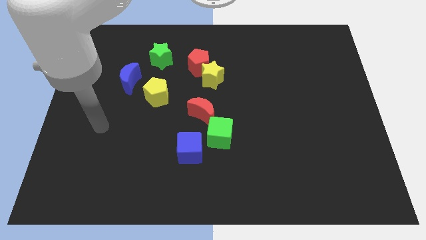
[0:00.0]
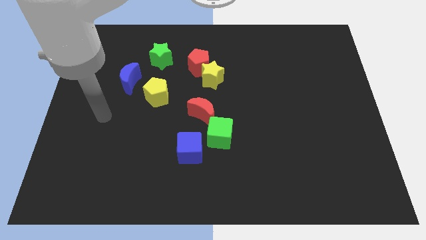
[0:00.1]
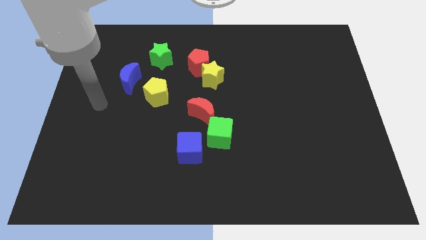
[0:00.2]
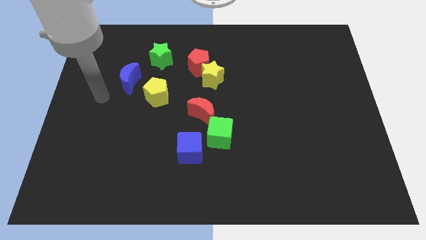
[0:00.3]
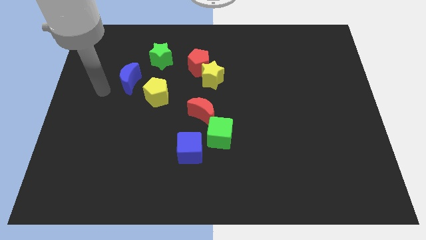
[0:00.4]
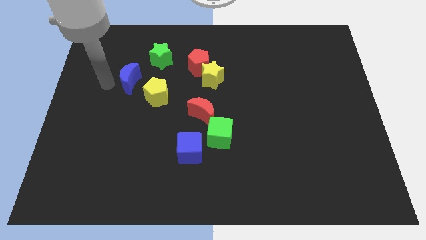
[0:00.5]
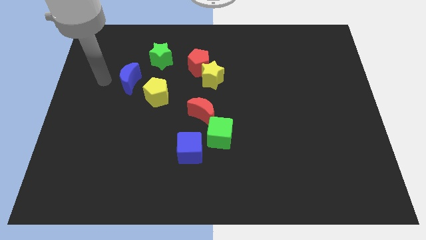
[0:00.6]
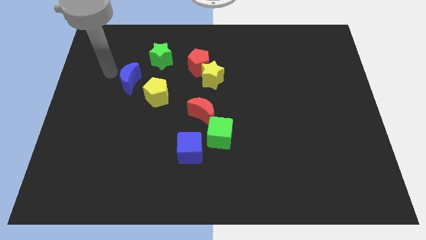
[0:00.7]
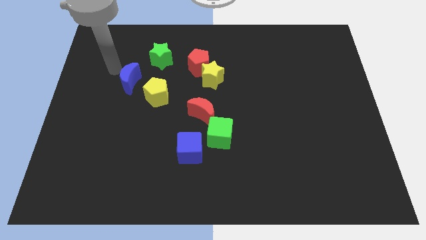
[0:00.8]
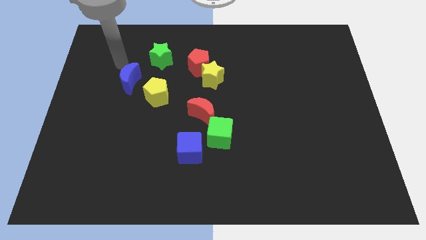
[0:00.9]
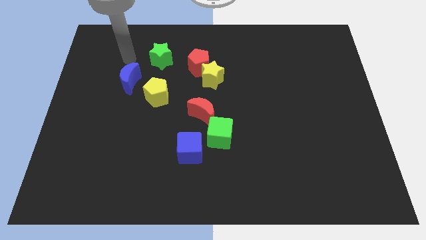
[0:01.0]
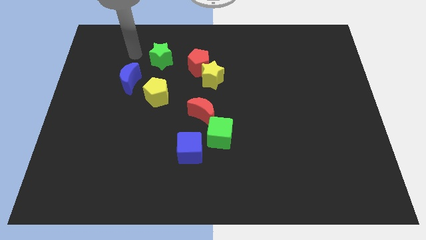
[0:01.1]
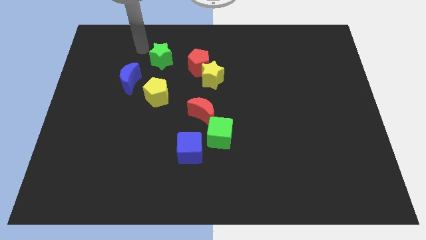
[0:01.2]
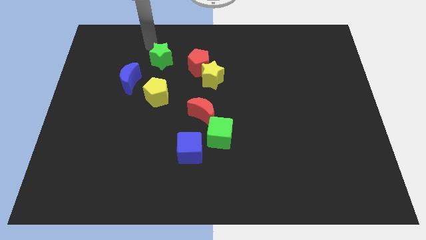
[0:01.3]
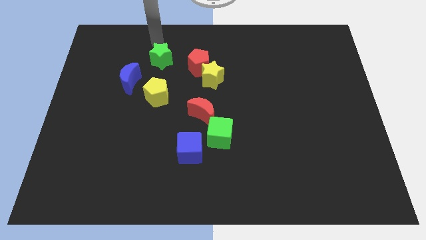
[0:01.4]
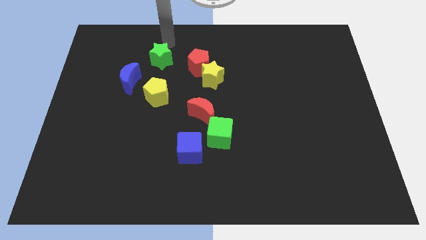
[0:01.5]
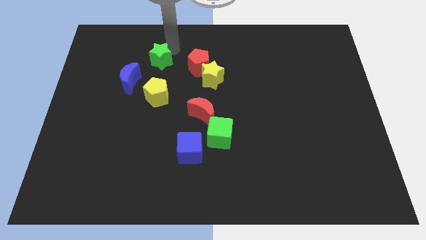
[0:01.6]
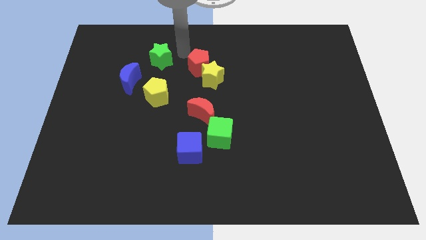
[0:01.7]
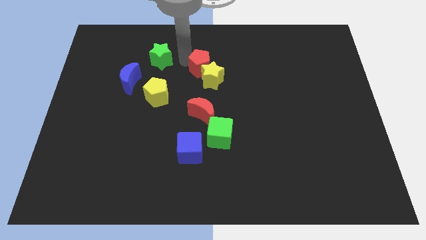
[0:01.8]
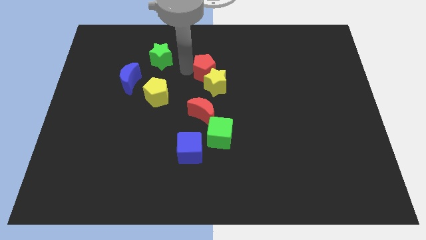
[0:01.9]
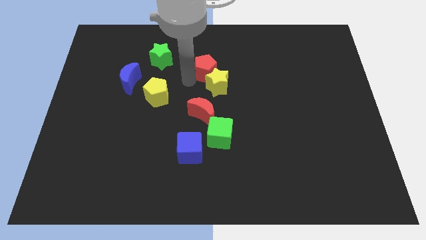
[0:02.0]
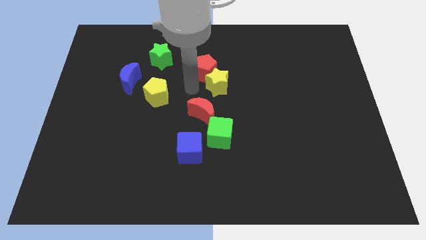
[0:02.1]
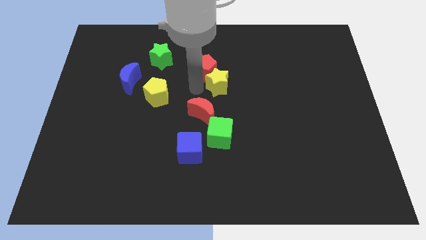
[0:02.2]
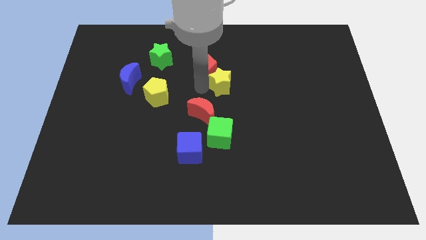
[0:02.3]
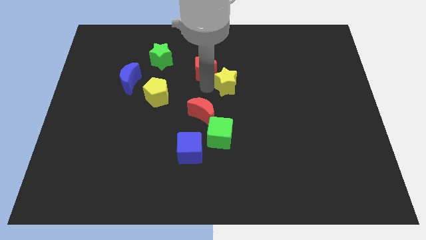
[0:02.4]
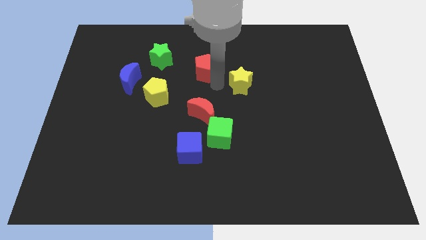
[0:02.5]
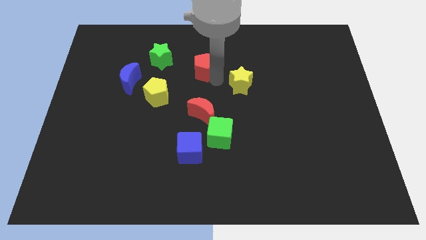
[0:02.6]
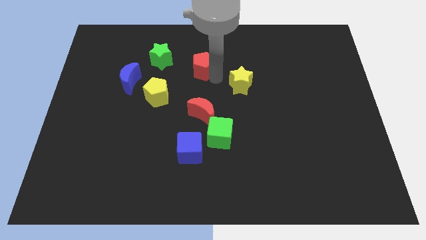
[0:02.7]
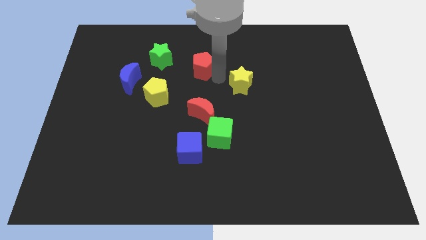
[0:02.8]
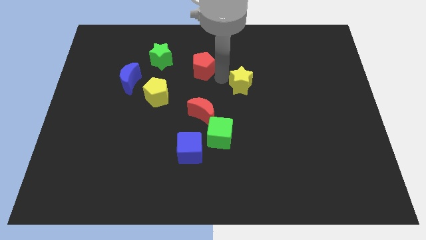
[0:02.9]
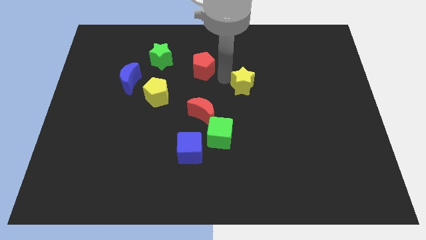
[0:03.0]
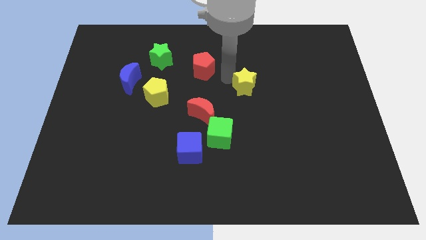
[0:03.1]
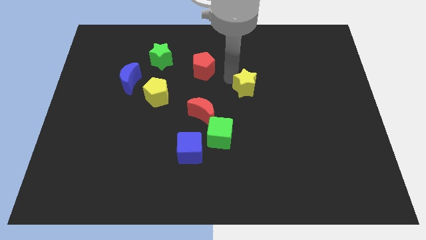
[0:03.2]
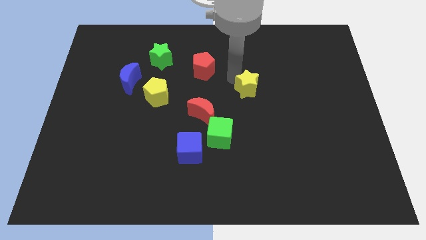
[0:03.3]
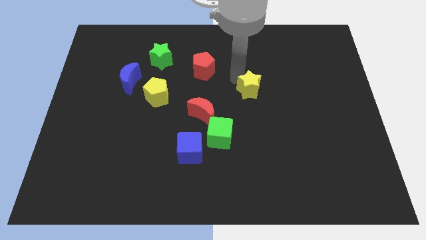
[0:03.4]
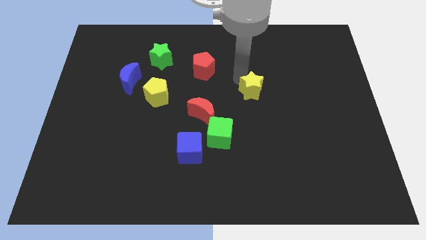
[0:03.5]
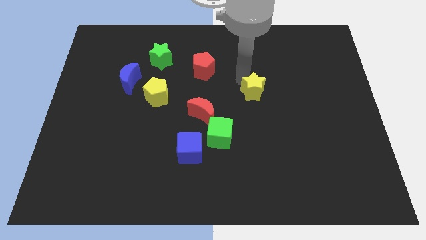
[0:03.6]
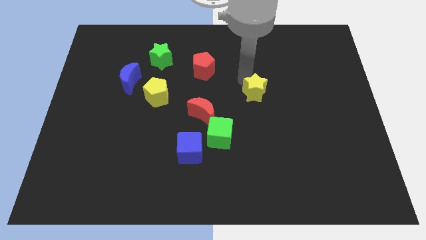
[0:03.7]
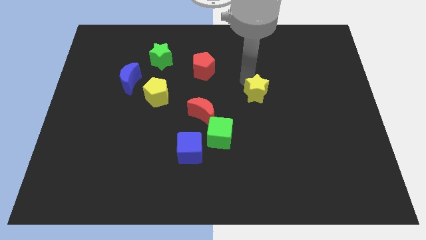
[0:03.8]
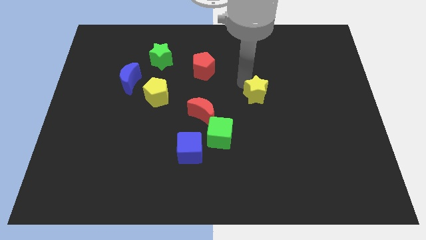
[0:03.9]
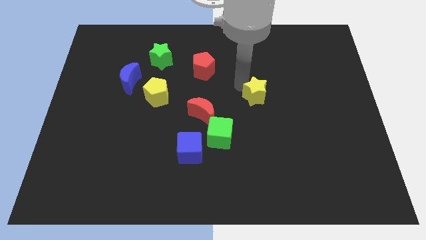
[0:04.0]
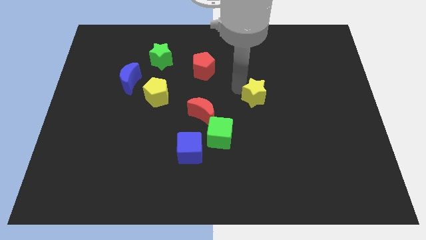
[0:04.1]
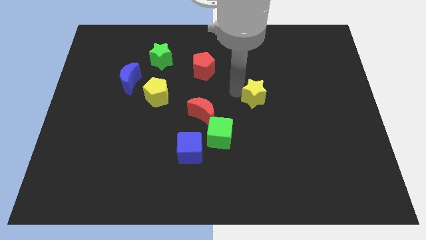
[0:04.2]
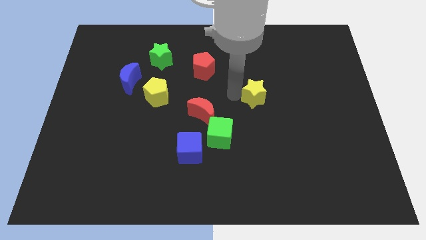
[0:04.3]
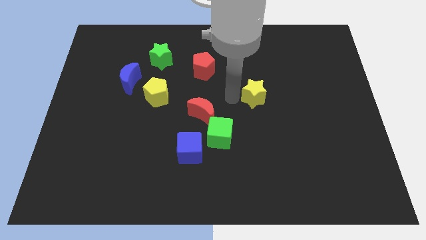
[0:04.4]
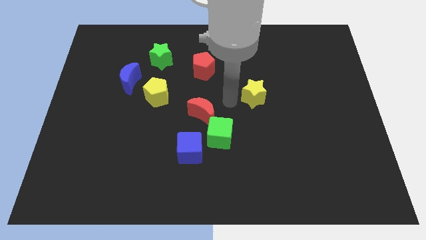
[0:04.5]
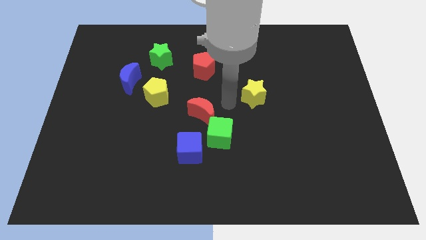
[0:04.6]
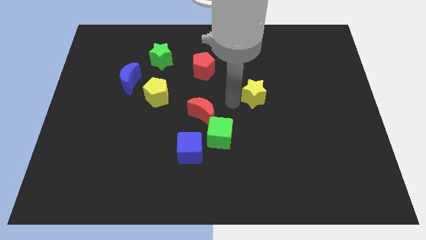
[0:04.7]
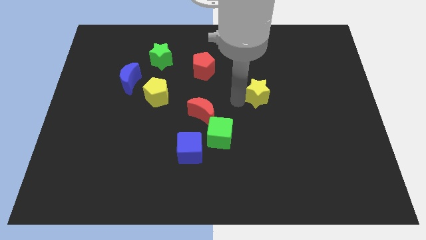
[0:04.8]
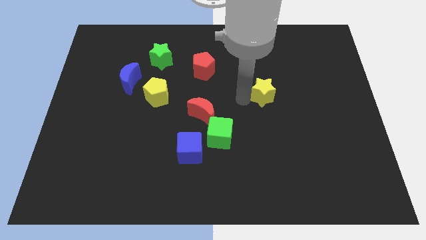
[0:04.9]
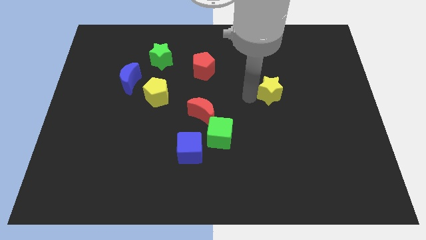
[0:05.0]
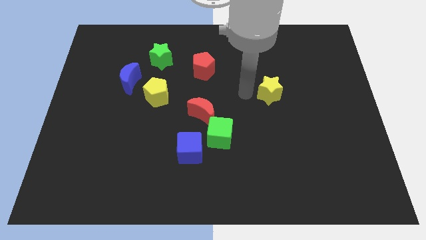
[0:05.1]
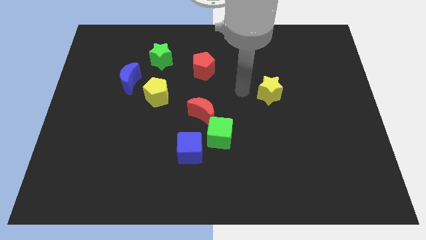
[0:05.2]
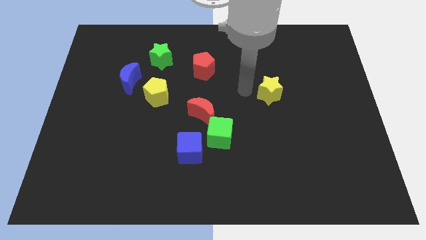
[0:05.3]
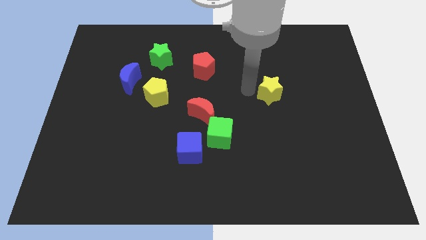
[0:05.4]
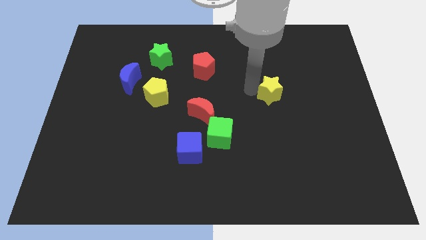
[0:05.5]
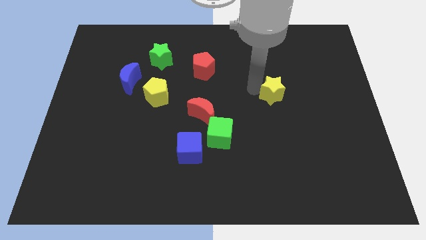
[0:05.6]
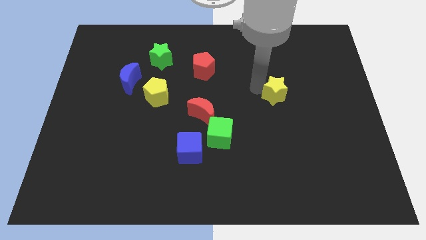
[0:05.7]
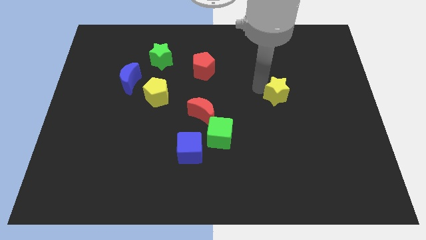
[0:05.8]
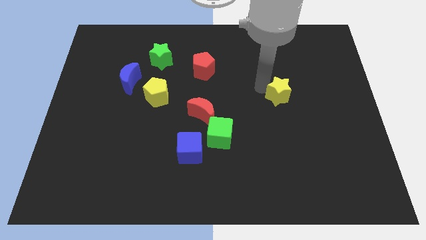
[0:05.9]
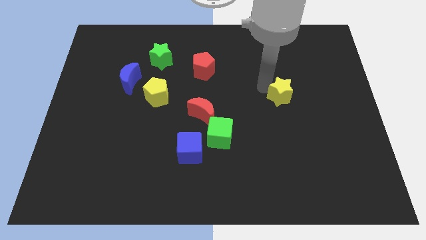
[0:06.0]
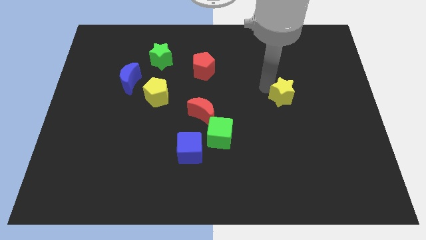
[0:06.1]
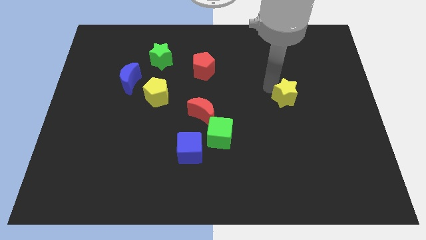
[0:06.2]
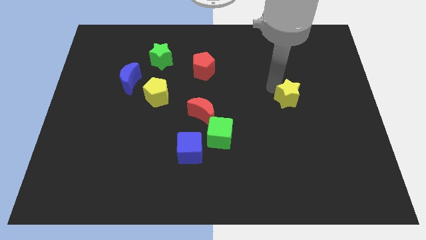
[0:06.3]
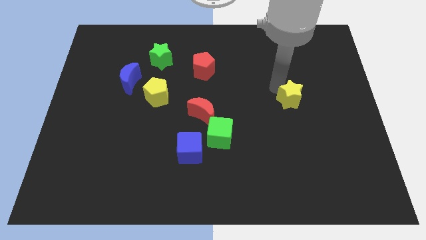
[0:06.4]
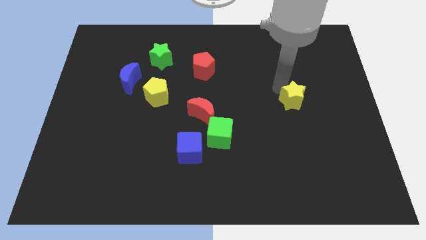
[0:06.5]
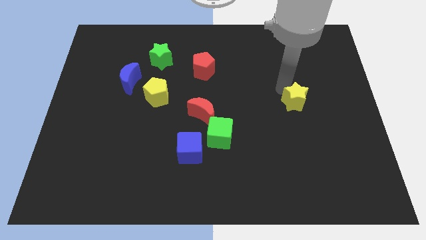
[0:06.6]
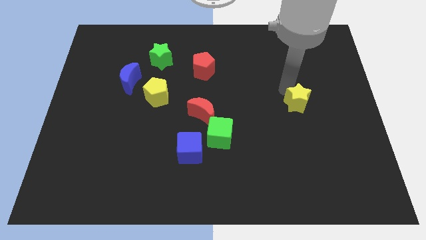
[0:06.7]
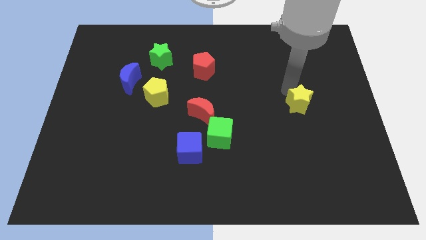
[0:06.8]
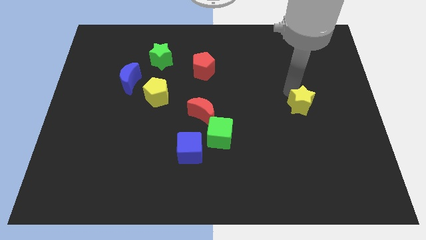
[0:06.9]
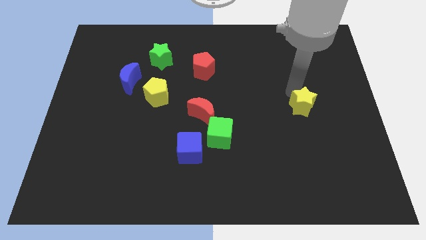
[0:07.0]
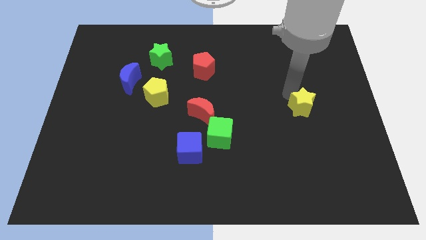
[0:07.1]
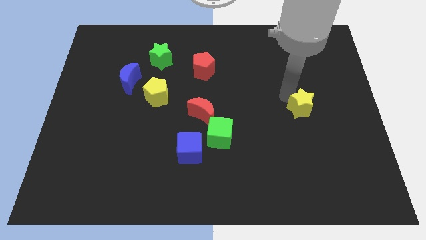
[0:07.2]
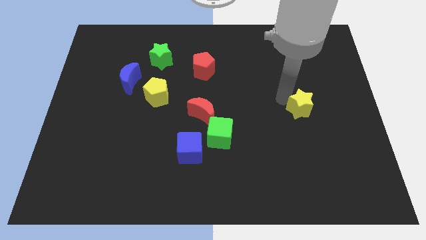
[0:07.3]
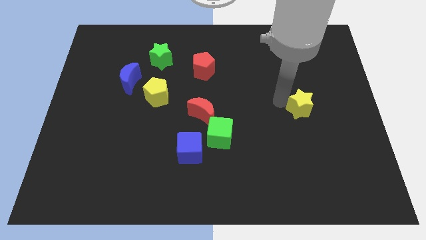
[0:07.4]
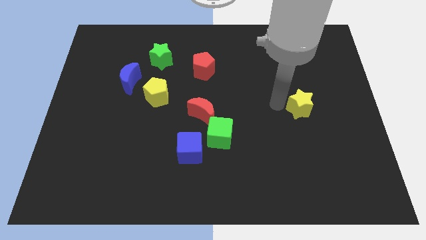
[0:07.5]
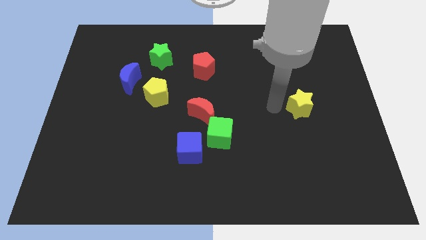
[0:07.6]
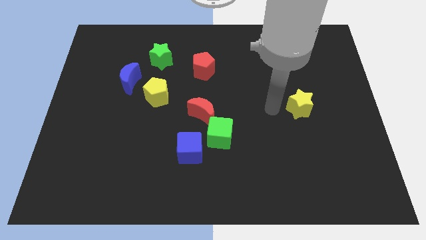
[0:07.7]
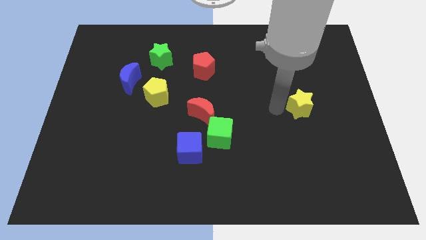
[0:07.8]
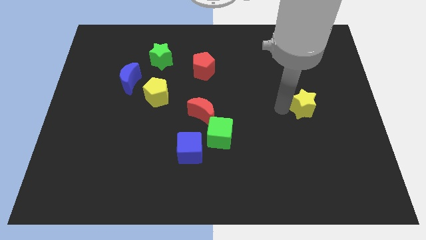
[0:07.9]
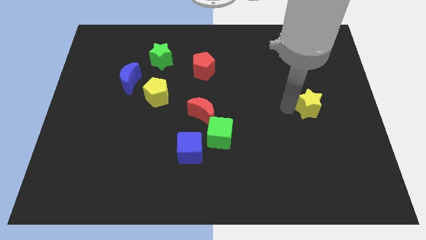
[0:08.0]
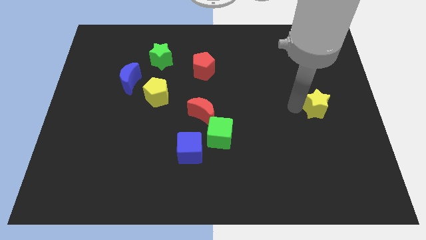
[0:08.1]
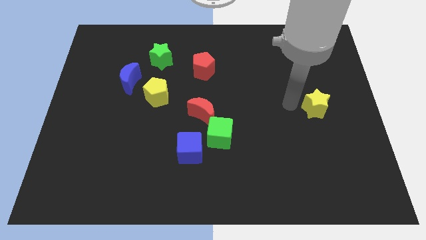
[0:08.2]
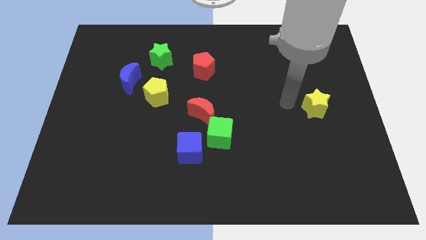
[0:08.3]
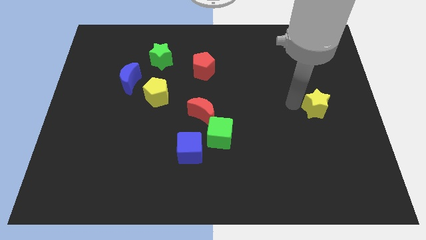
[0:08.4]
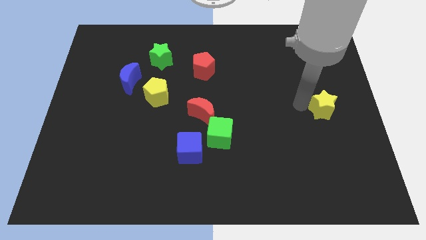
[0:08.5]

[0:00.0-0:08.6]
push the yellow star to the center right
